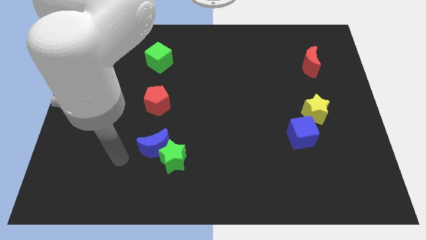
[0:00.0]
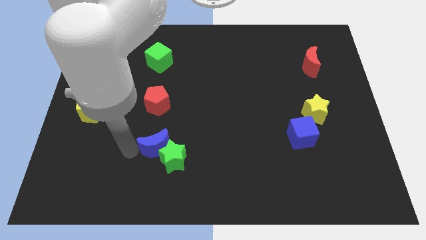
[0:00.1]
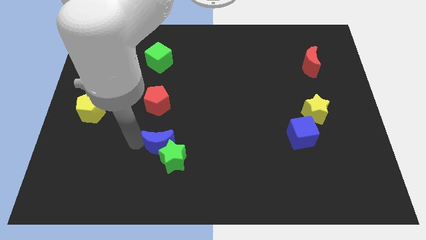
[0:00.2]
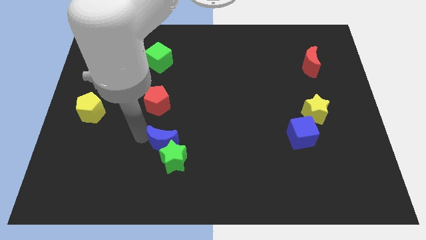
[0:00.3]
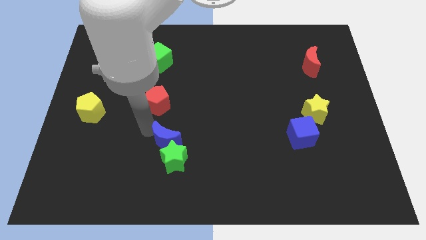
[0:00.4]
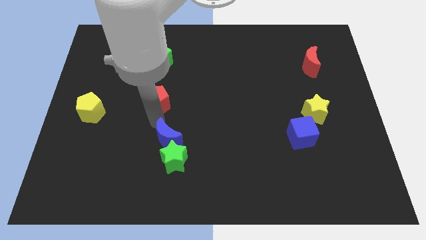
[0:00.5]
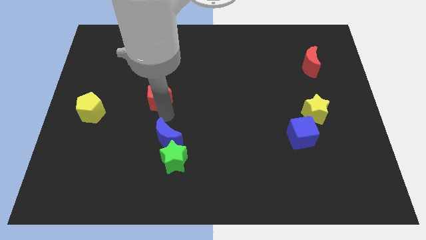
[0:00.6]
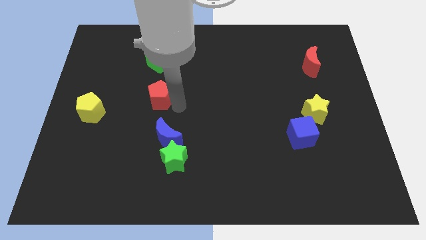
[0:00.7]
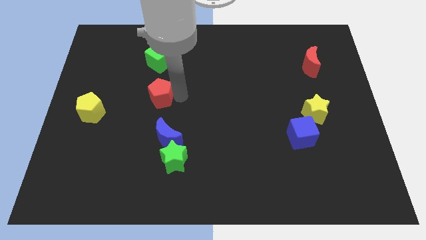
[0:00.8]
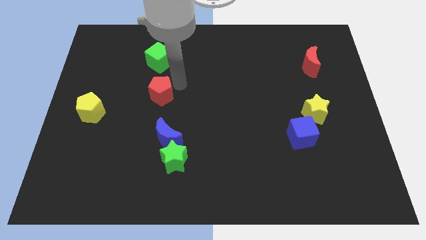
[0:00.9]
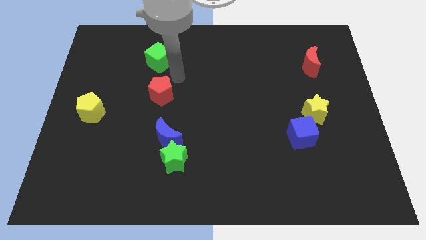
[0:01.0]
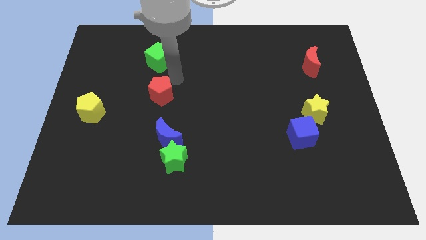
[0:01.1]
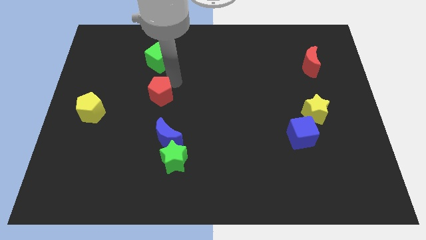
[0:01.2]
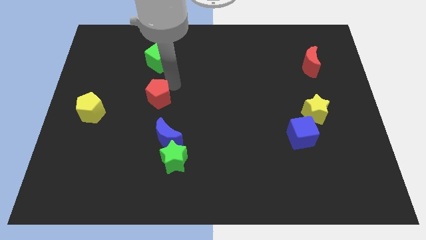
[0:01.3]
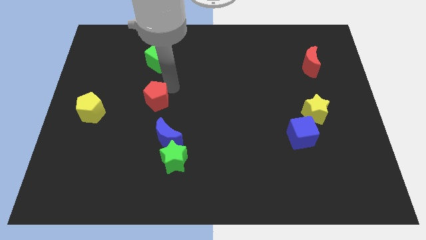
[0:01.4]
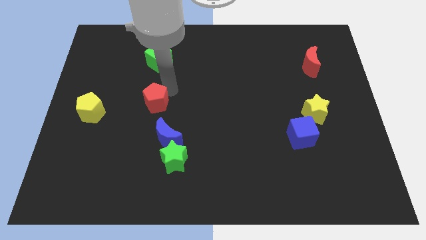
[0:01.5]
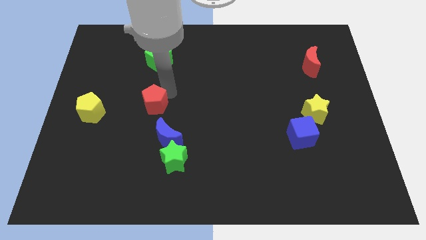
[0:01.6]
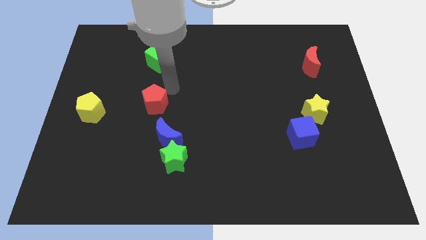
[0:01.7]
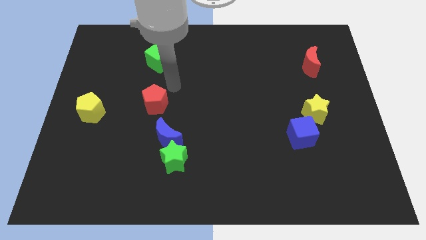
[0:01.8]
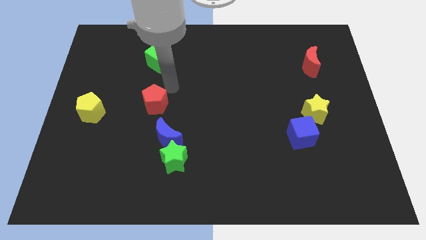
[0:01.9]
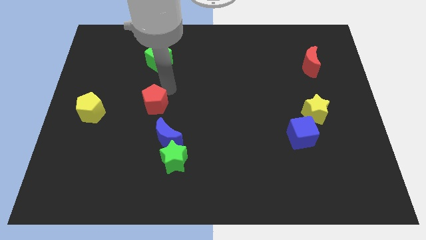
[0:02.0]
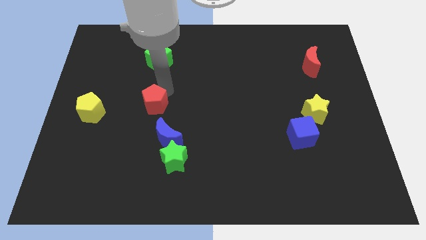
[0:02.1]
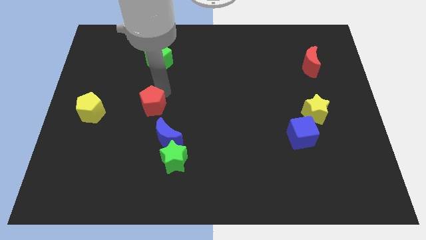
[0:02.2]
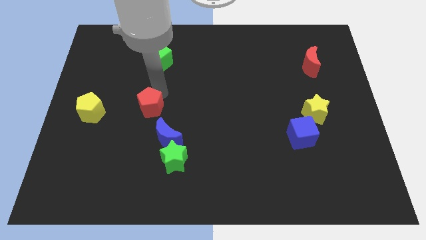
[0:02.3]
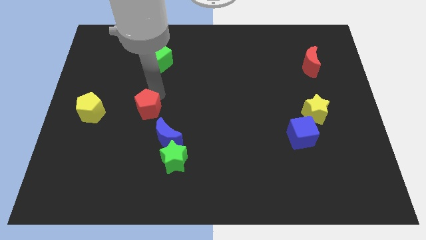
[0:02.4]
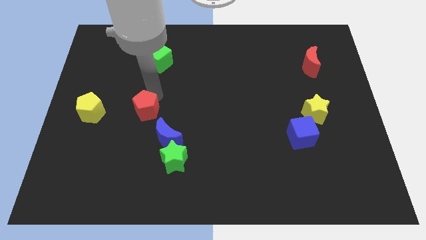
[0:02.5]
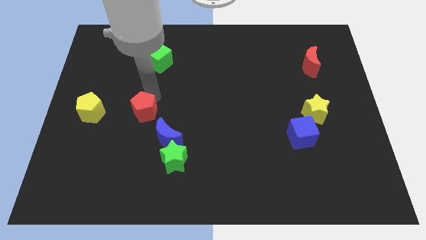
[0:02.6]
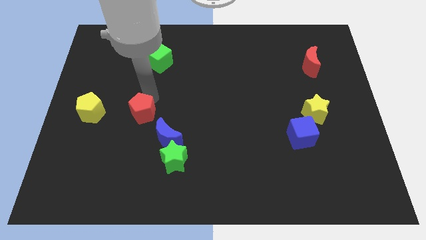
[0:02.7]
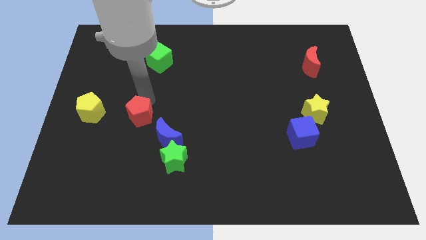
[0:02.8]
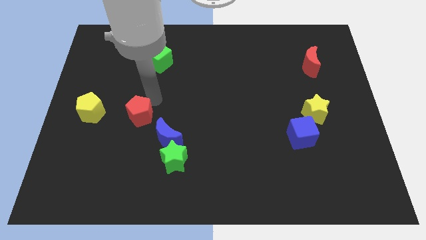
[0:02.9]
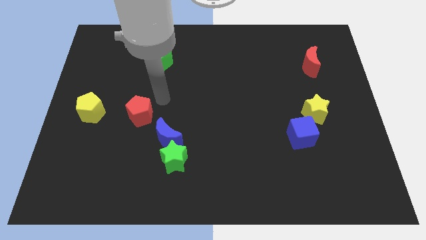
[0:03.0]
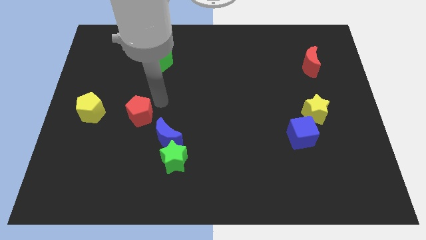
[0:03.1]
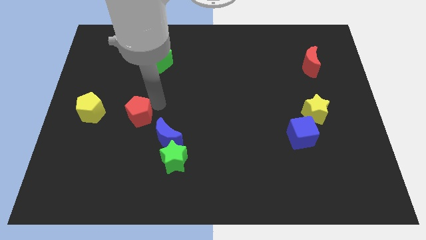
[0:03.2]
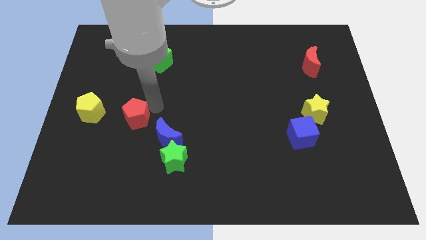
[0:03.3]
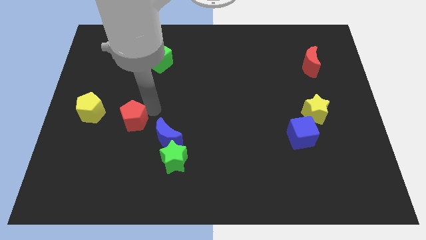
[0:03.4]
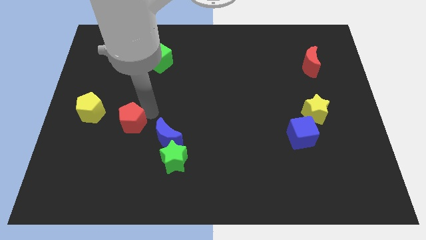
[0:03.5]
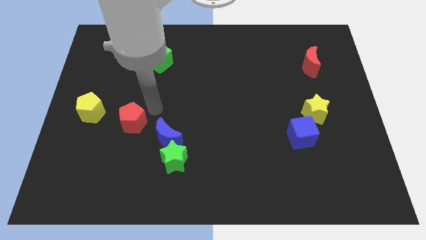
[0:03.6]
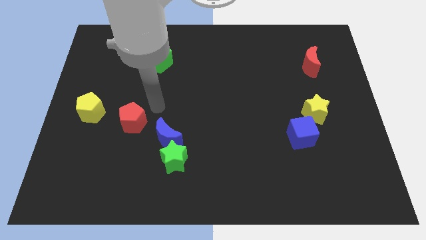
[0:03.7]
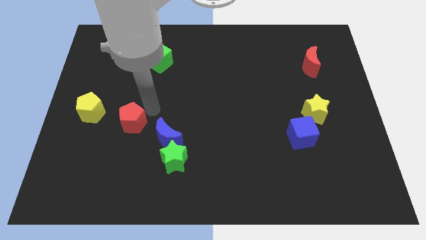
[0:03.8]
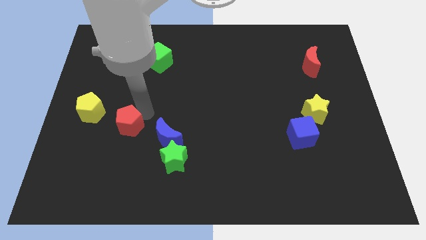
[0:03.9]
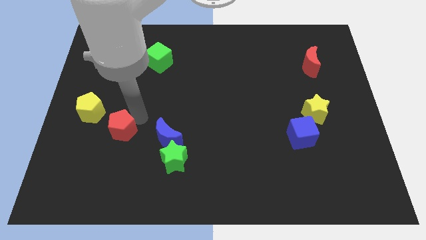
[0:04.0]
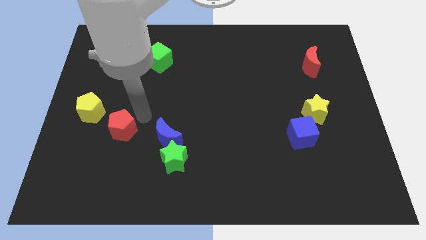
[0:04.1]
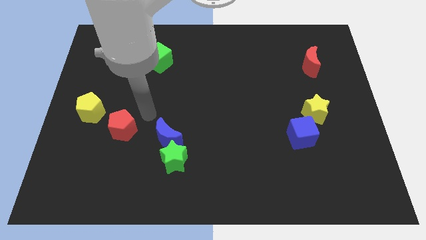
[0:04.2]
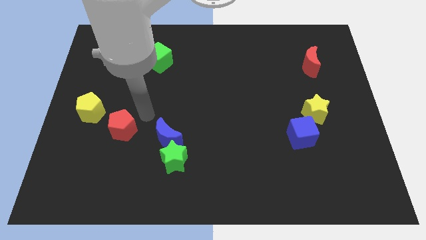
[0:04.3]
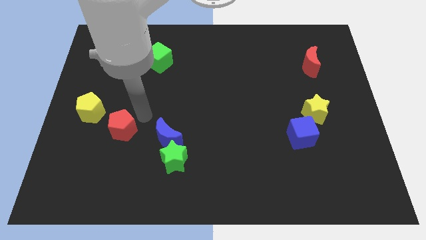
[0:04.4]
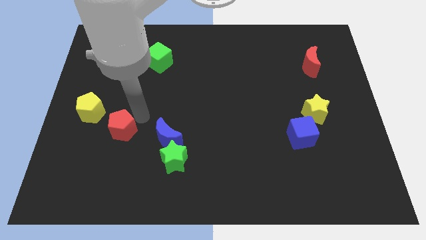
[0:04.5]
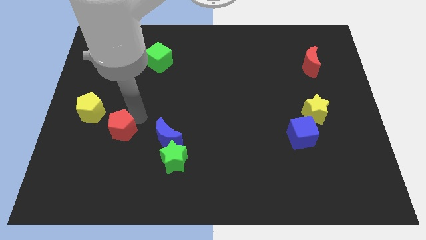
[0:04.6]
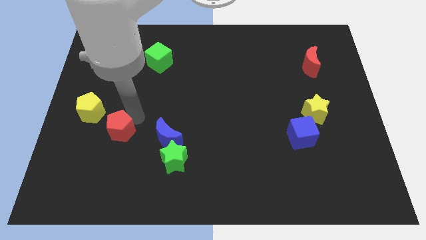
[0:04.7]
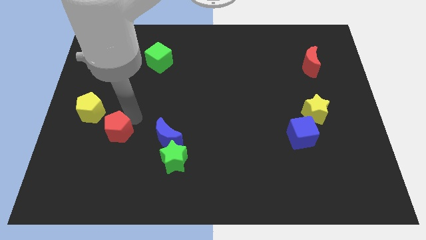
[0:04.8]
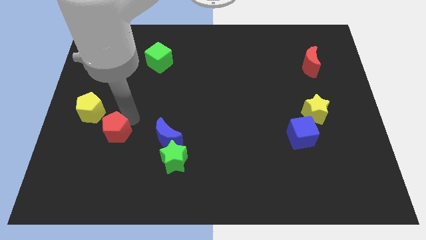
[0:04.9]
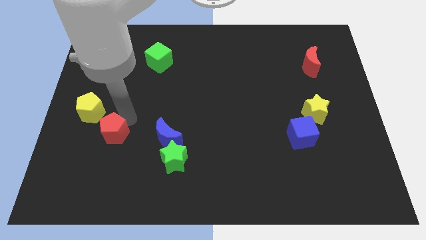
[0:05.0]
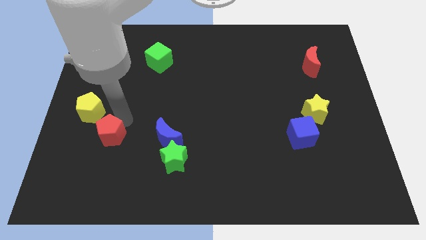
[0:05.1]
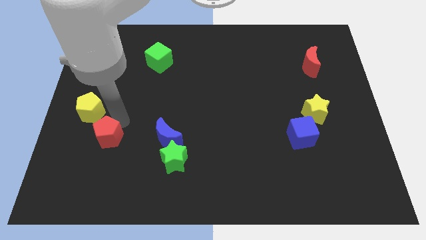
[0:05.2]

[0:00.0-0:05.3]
push the red pentagon to the bottom side of the yellow pentagon

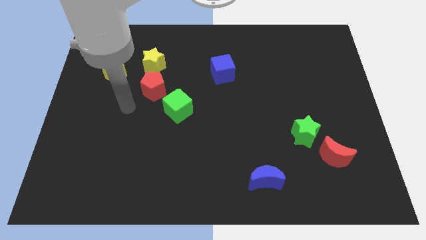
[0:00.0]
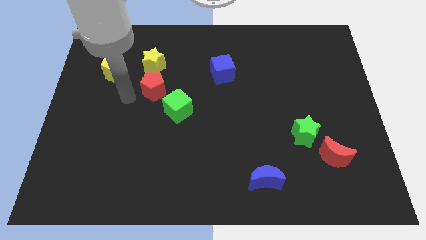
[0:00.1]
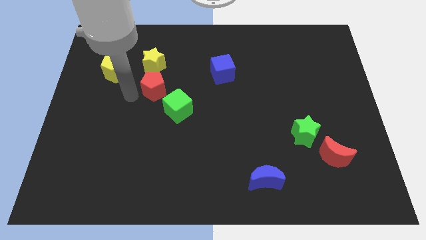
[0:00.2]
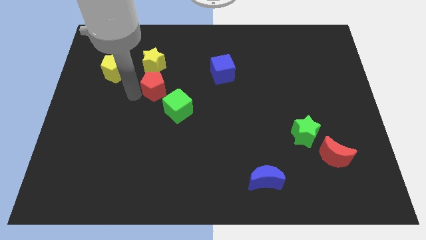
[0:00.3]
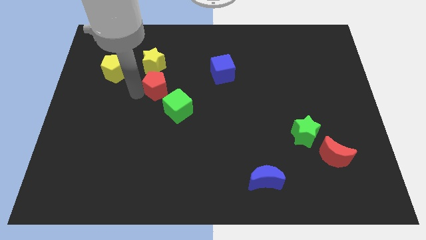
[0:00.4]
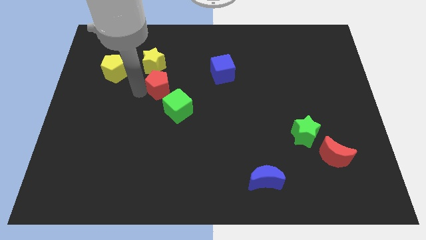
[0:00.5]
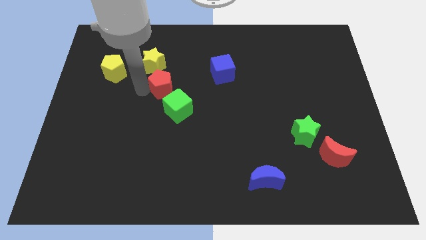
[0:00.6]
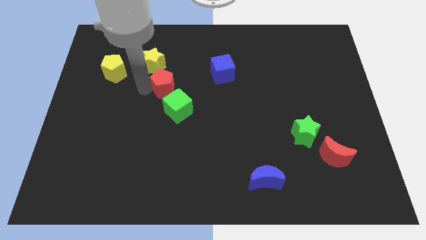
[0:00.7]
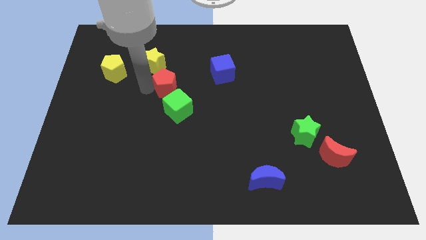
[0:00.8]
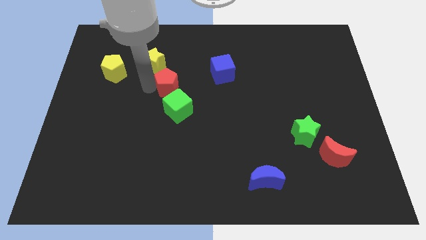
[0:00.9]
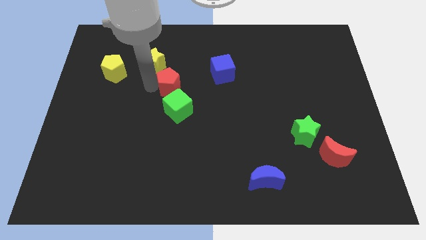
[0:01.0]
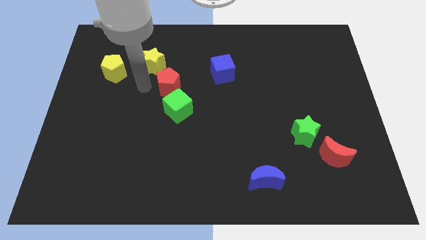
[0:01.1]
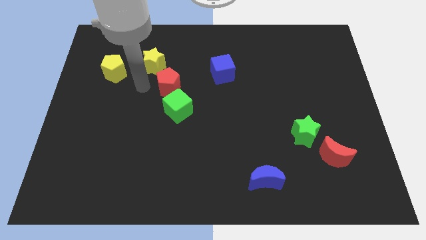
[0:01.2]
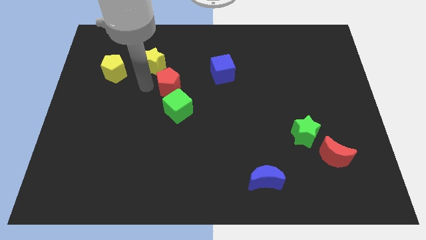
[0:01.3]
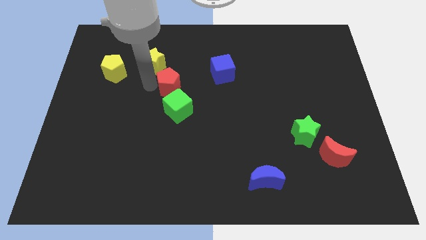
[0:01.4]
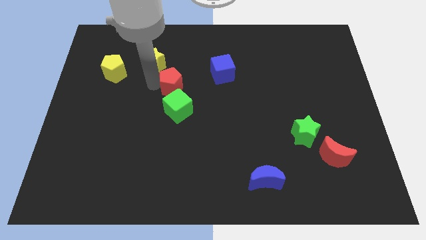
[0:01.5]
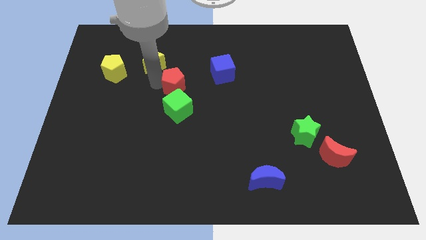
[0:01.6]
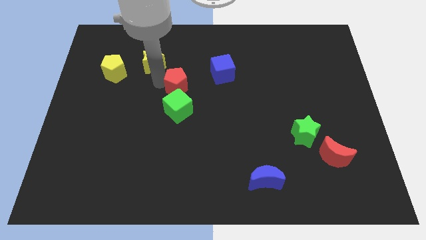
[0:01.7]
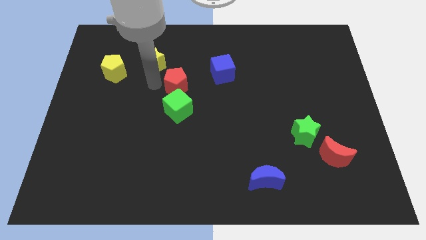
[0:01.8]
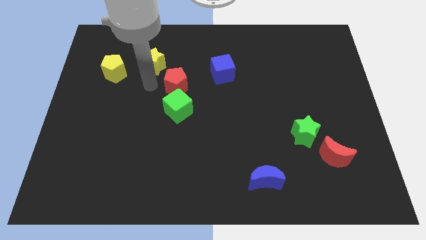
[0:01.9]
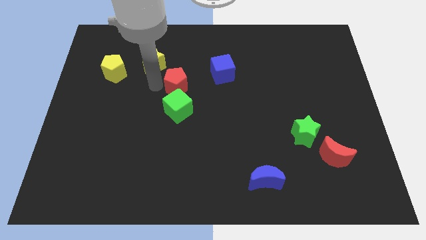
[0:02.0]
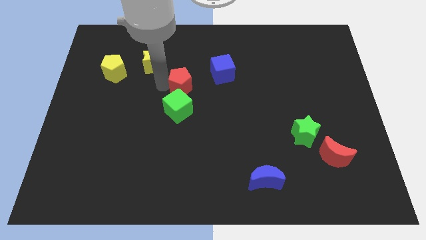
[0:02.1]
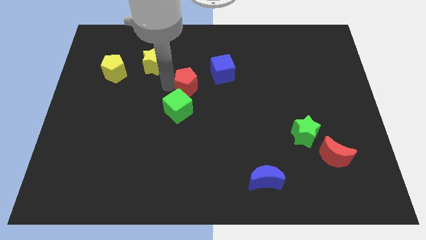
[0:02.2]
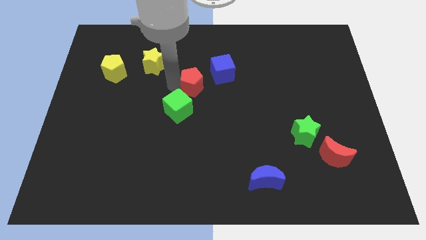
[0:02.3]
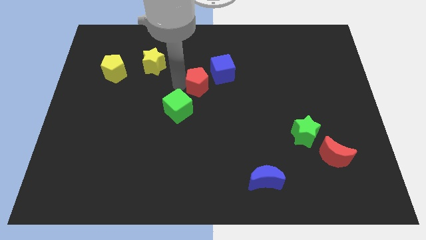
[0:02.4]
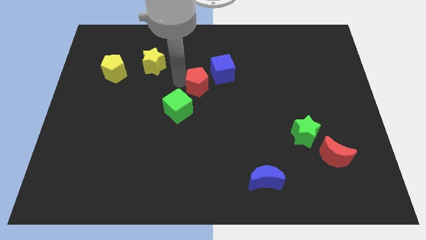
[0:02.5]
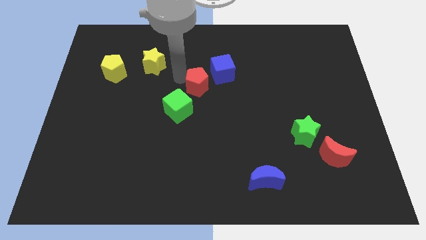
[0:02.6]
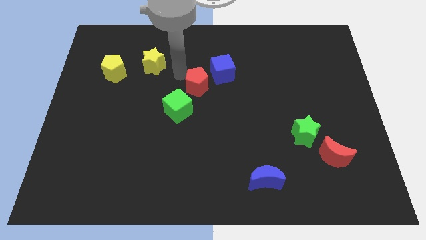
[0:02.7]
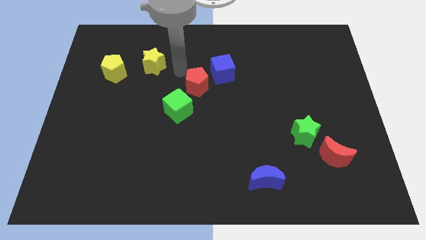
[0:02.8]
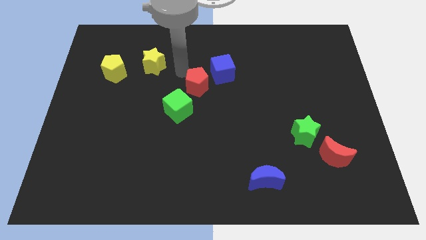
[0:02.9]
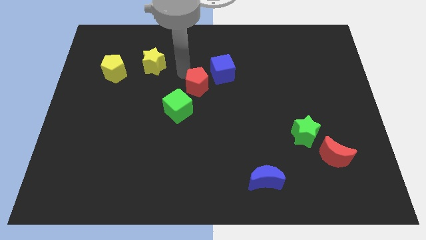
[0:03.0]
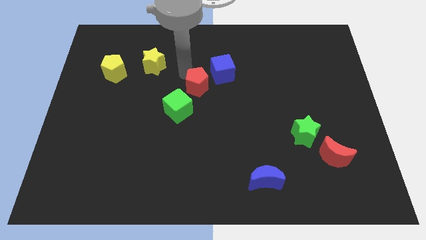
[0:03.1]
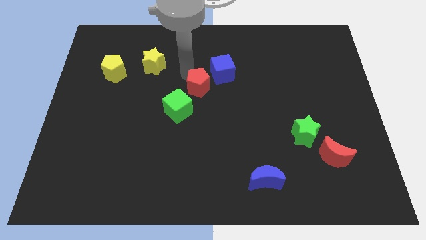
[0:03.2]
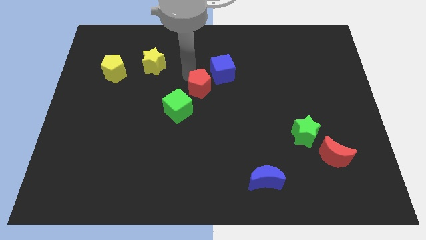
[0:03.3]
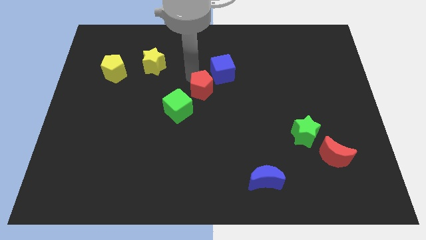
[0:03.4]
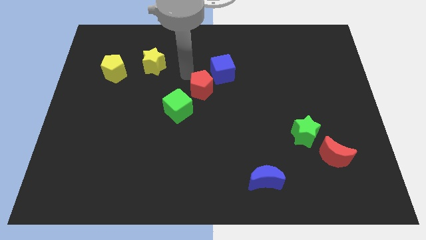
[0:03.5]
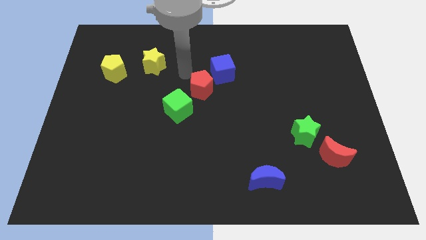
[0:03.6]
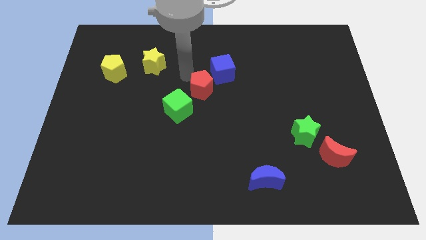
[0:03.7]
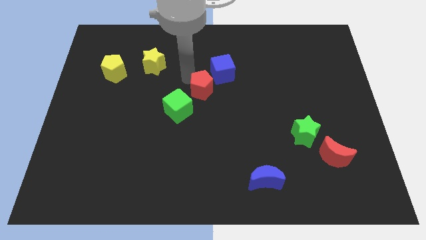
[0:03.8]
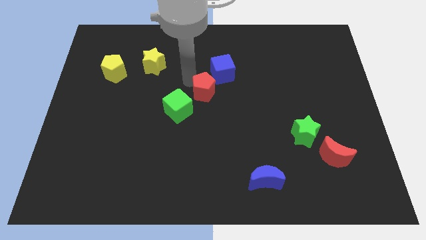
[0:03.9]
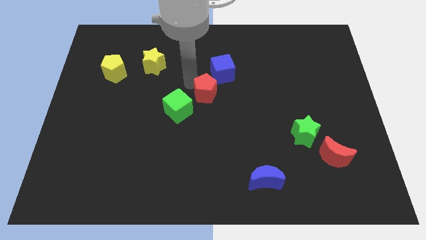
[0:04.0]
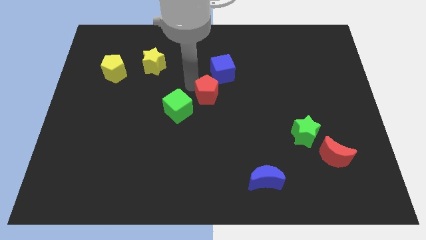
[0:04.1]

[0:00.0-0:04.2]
put the red pentagon to the right side of the green cube
